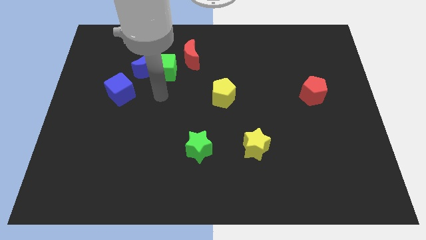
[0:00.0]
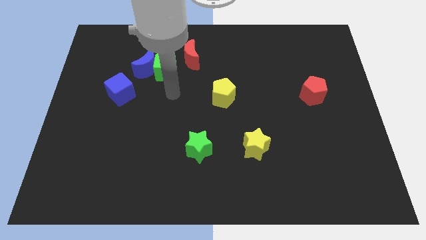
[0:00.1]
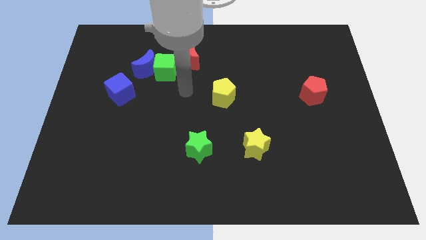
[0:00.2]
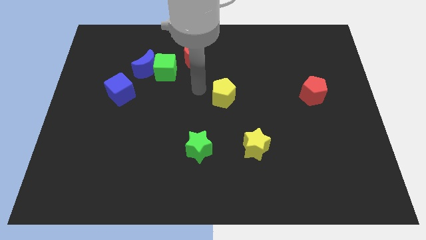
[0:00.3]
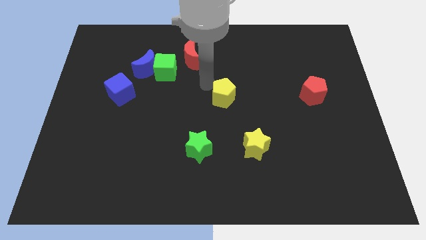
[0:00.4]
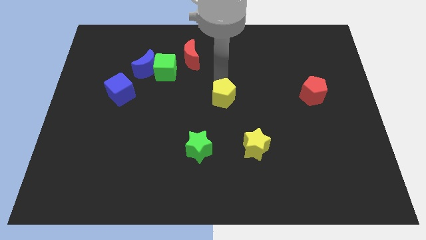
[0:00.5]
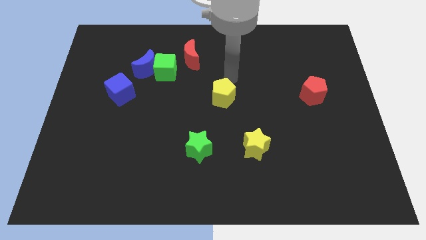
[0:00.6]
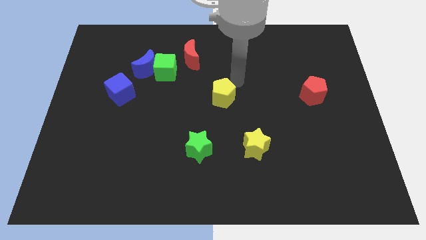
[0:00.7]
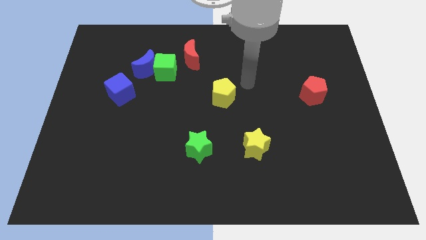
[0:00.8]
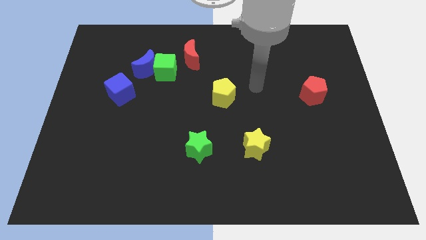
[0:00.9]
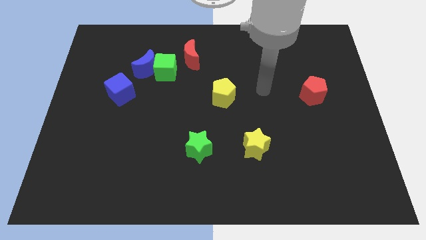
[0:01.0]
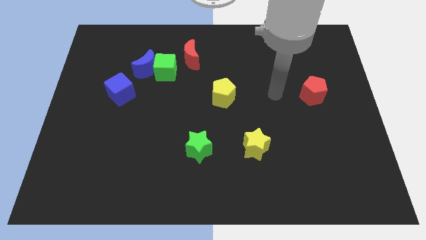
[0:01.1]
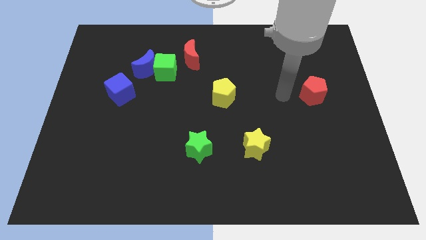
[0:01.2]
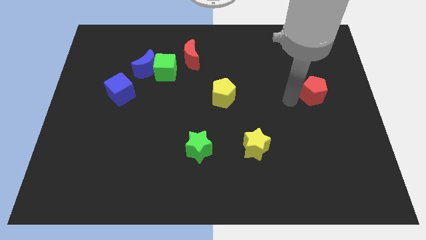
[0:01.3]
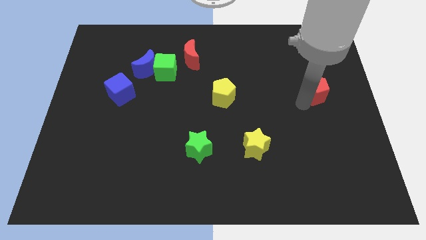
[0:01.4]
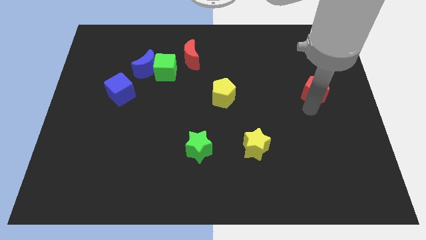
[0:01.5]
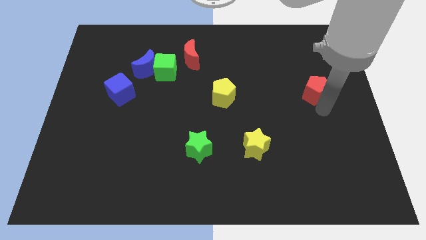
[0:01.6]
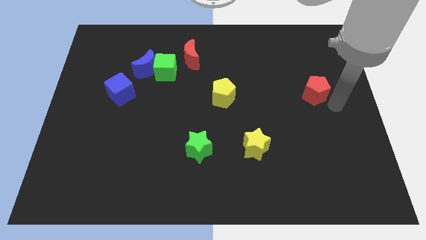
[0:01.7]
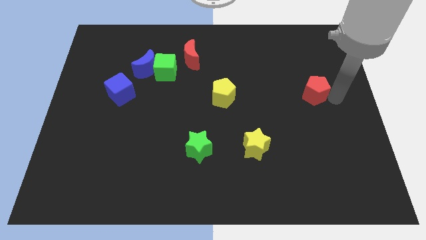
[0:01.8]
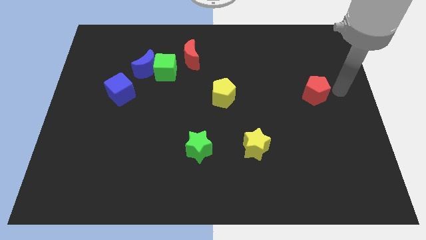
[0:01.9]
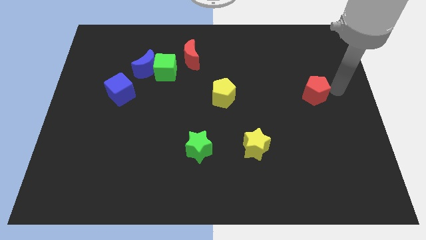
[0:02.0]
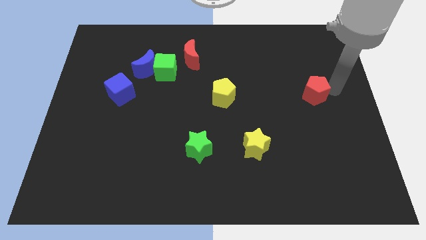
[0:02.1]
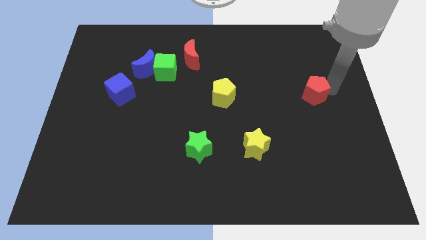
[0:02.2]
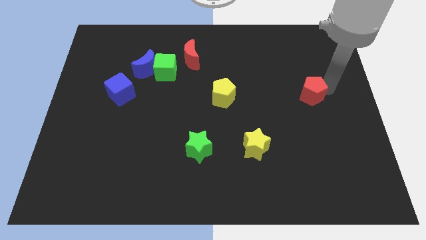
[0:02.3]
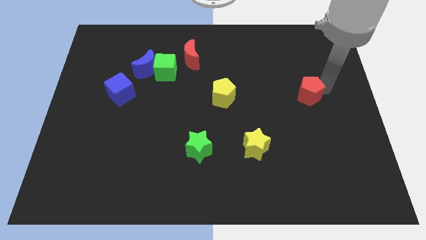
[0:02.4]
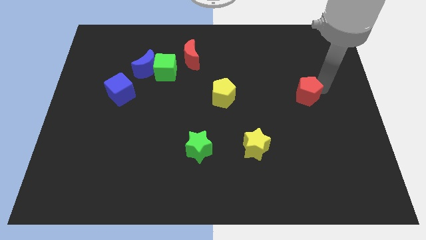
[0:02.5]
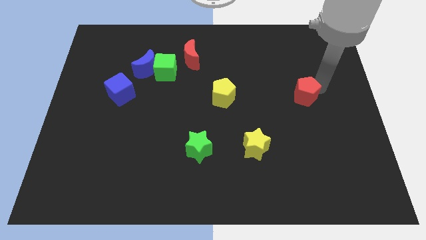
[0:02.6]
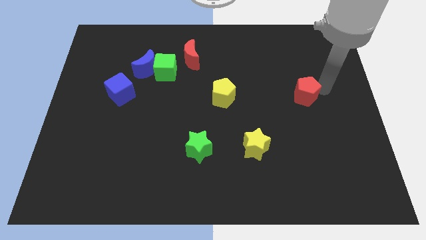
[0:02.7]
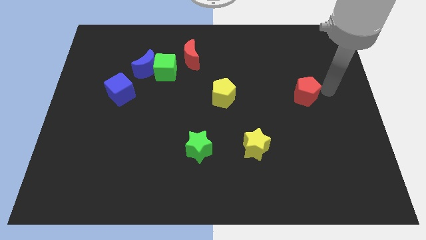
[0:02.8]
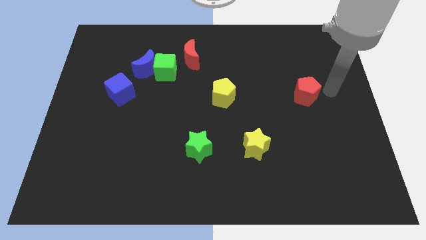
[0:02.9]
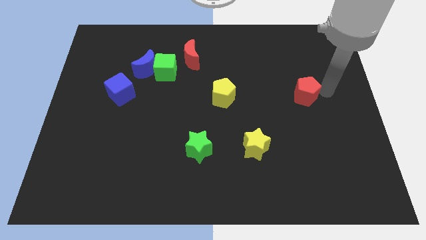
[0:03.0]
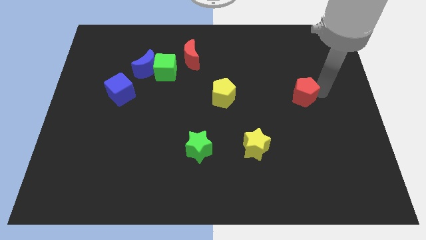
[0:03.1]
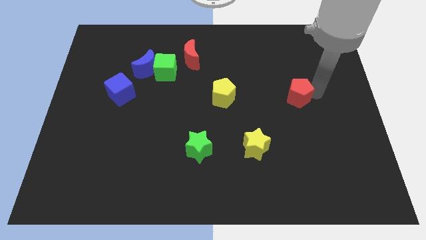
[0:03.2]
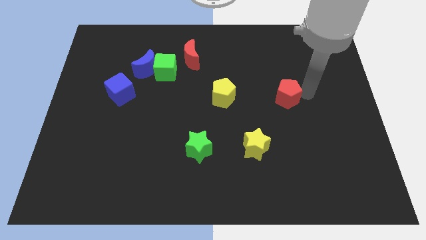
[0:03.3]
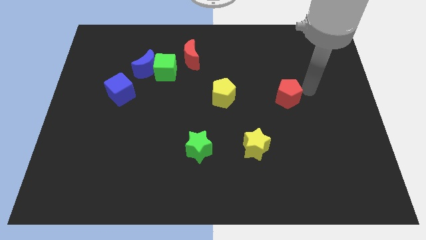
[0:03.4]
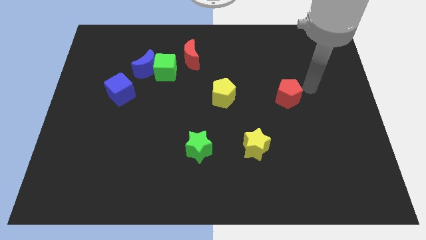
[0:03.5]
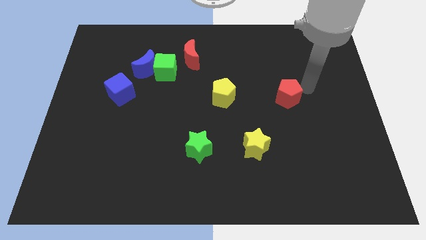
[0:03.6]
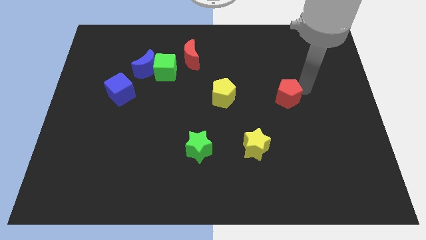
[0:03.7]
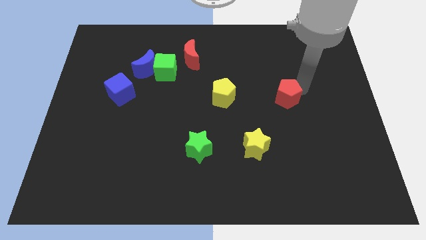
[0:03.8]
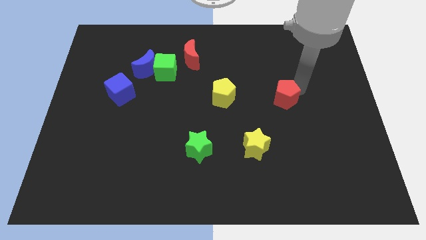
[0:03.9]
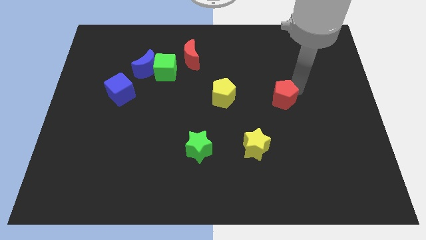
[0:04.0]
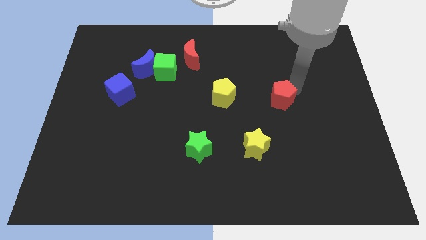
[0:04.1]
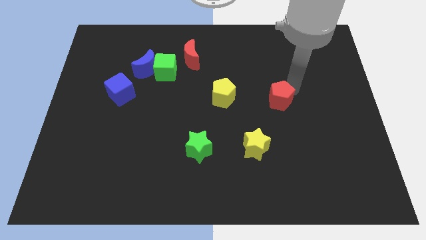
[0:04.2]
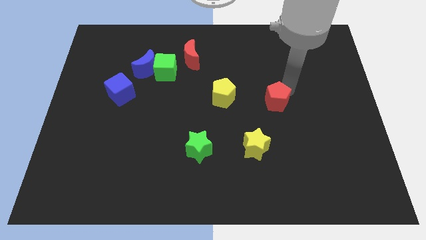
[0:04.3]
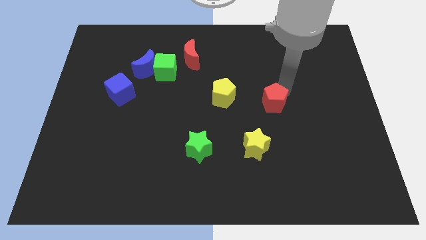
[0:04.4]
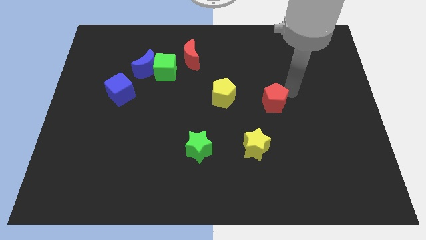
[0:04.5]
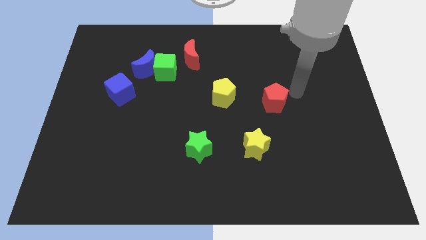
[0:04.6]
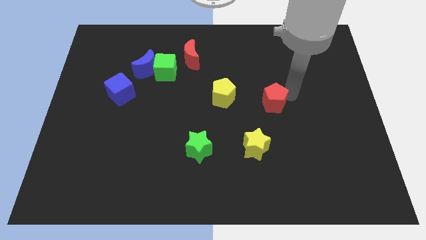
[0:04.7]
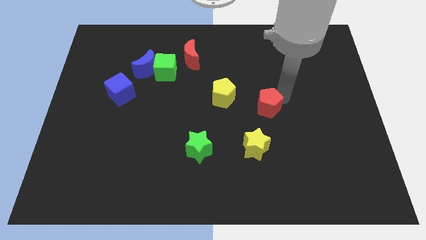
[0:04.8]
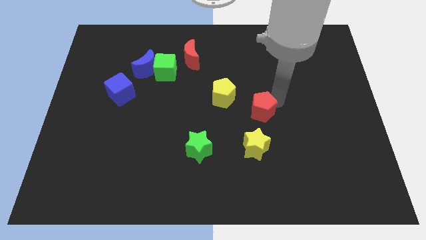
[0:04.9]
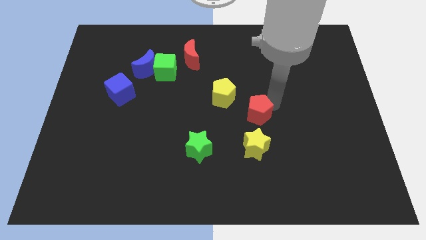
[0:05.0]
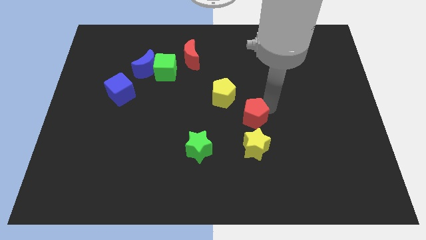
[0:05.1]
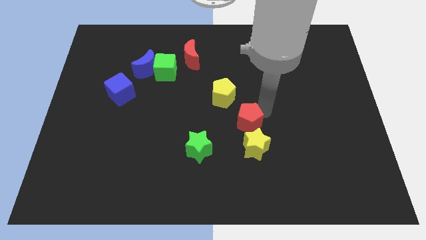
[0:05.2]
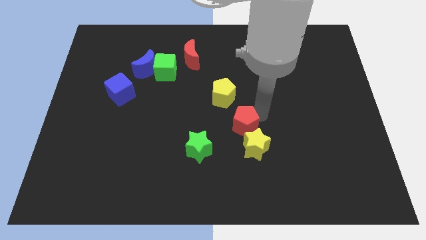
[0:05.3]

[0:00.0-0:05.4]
slide the red pentagon to the top right side of the green star
